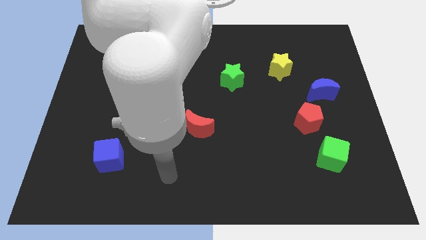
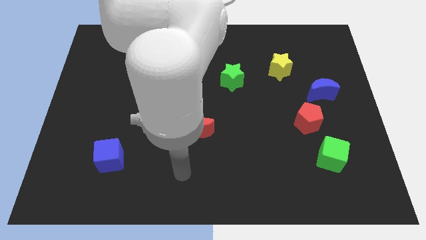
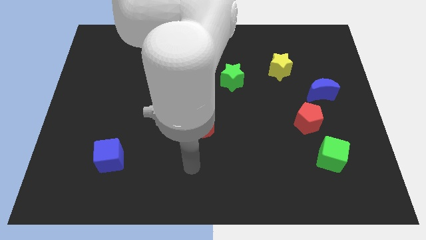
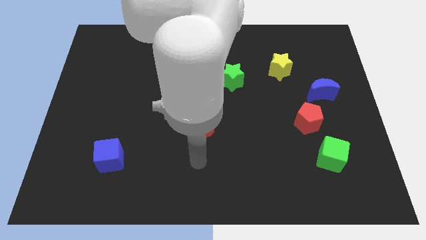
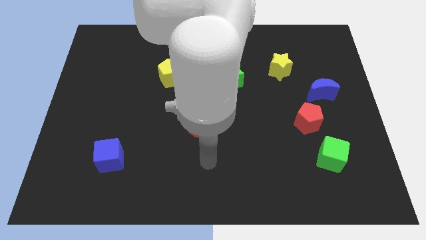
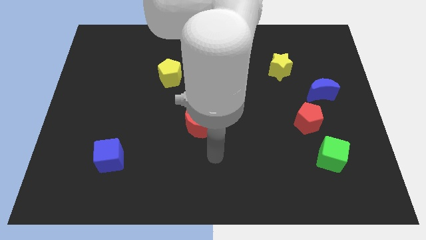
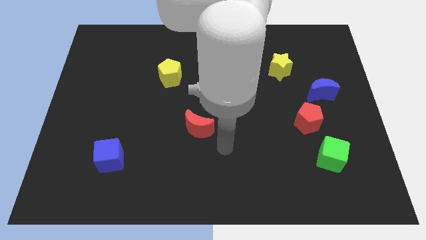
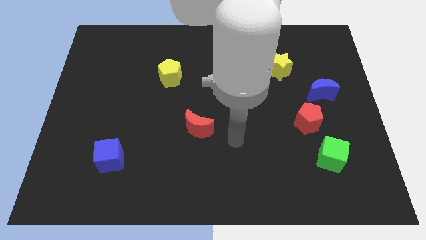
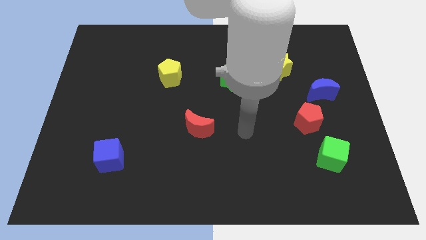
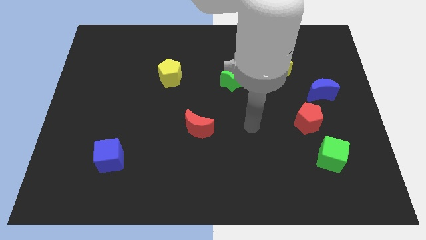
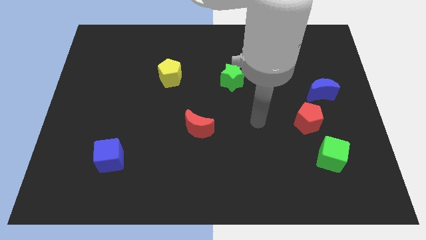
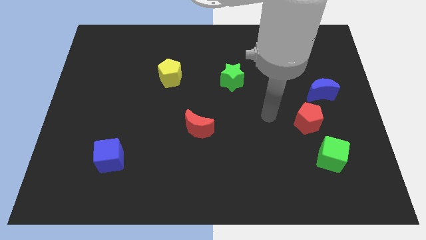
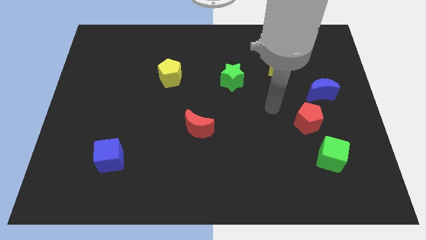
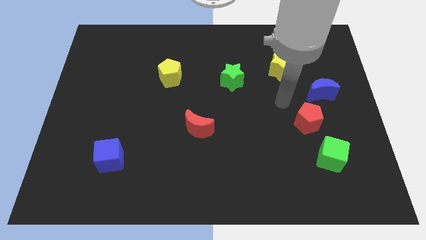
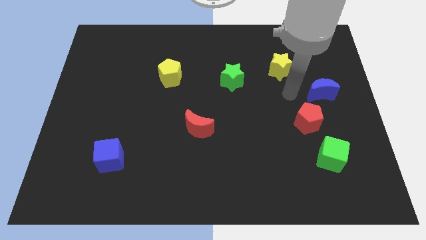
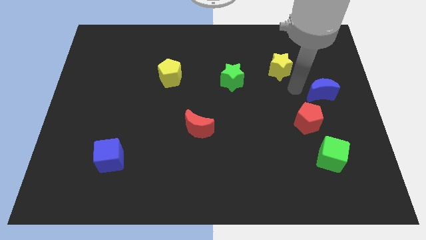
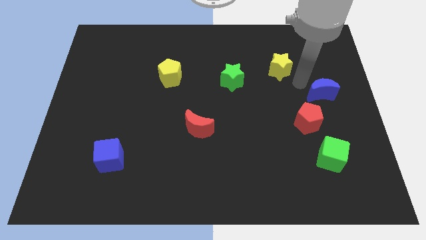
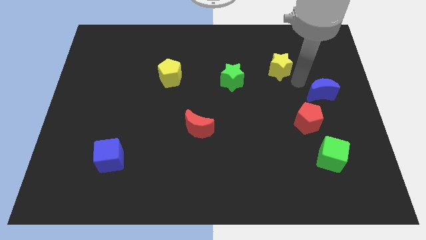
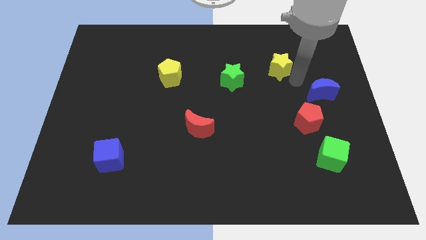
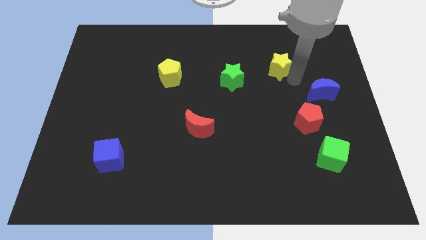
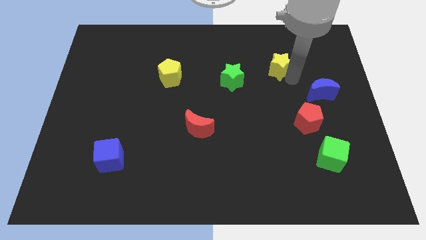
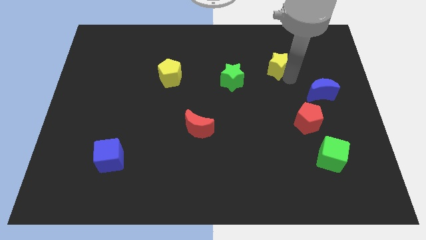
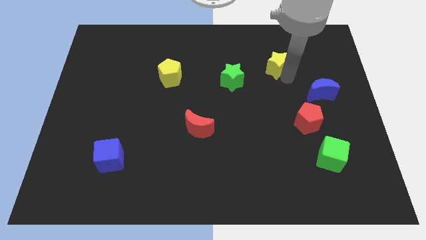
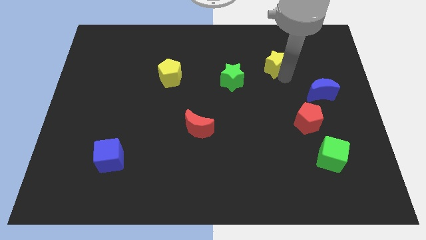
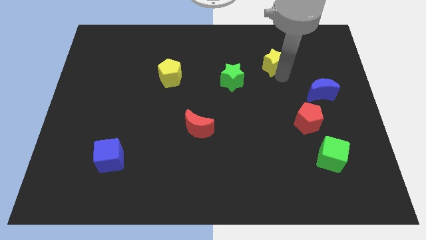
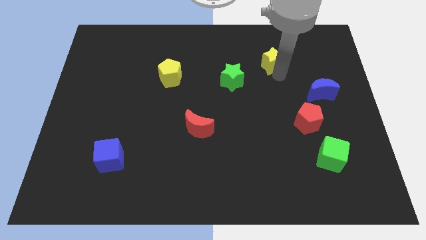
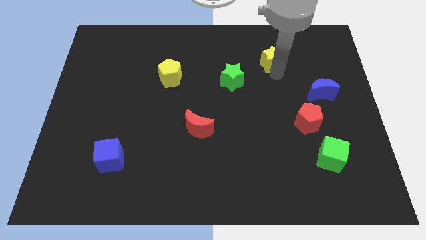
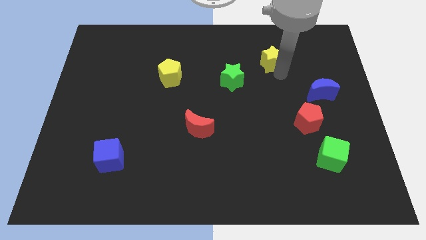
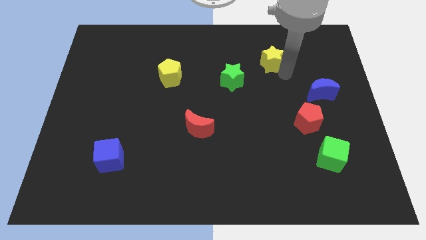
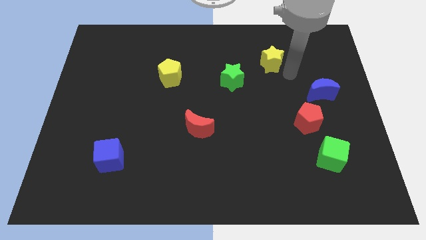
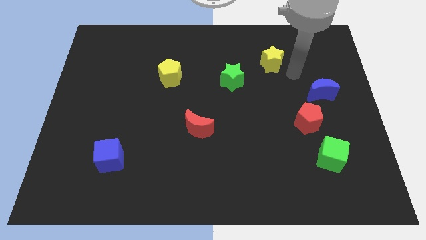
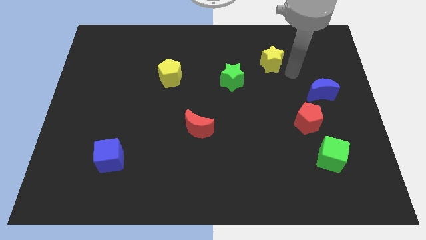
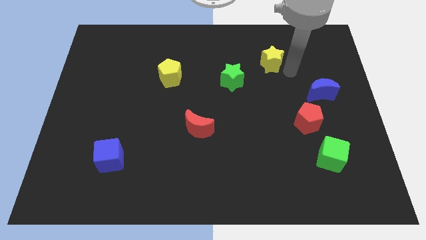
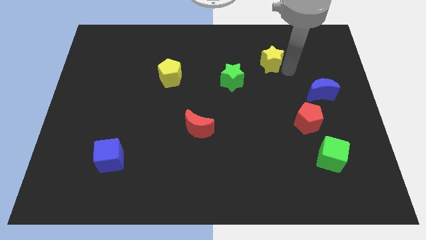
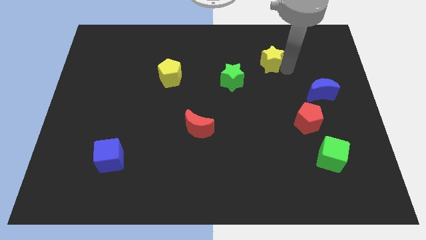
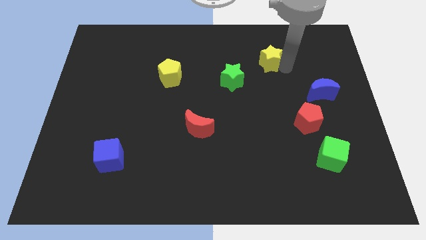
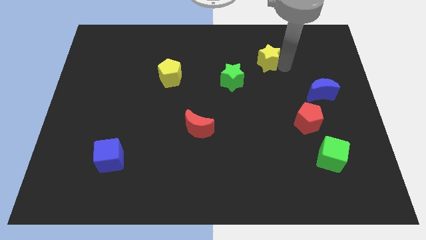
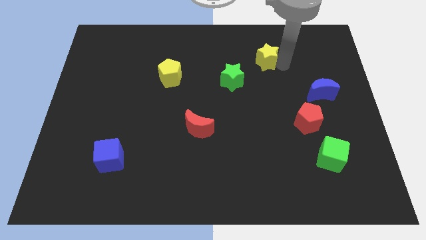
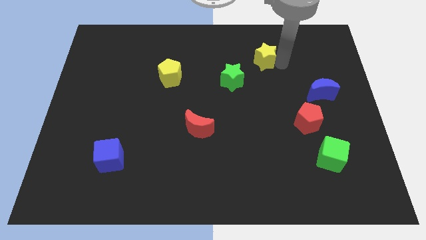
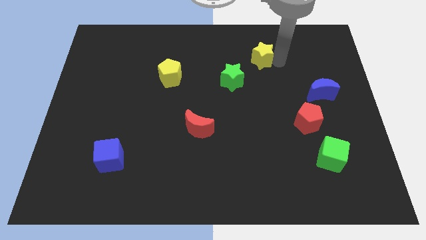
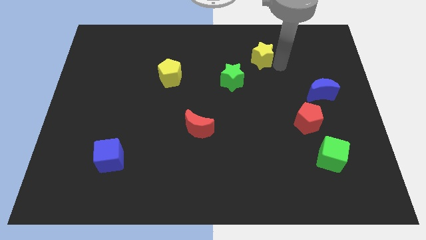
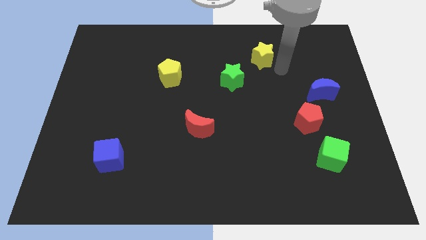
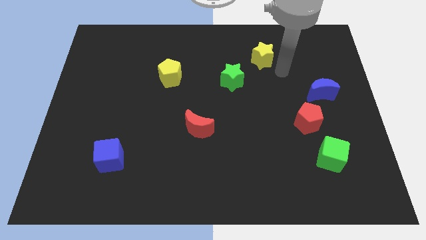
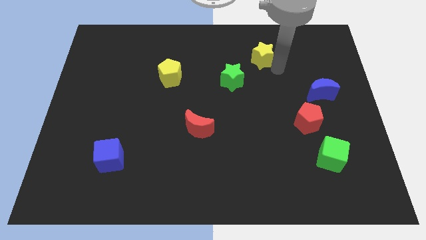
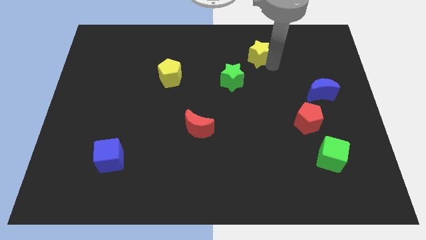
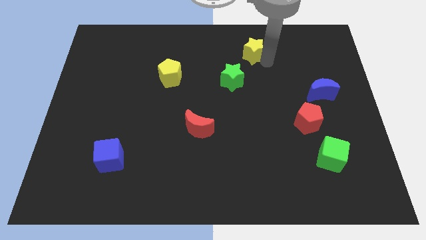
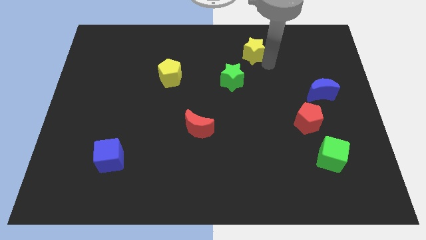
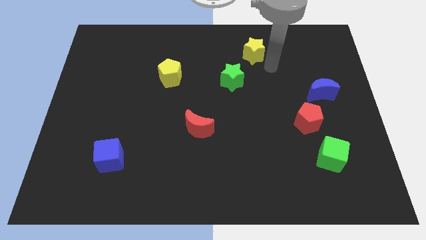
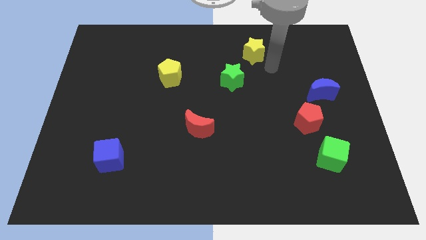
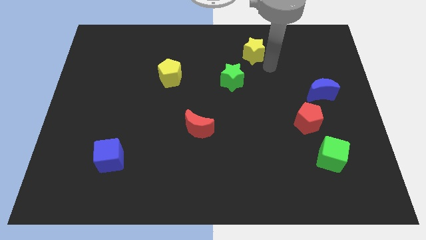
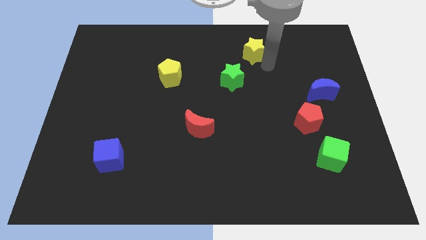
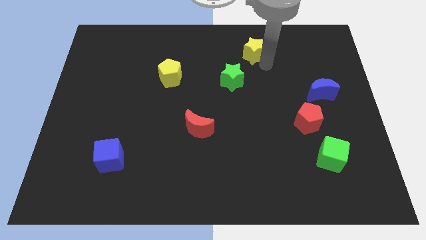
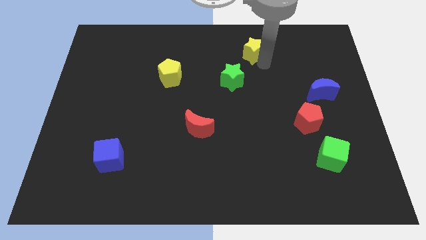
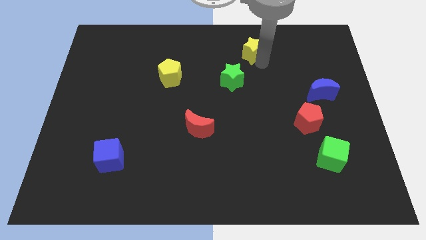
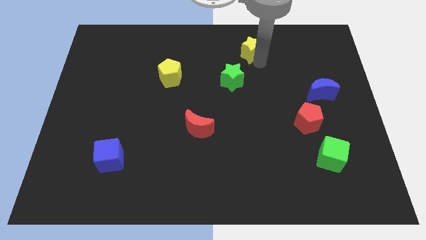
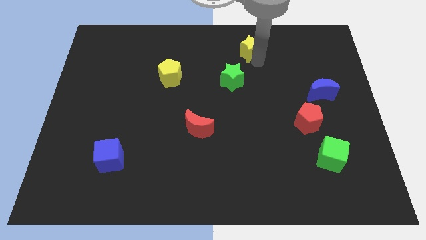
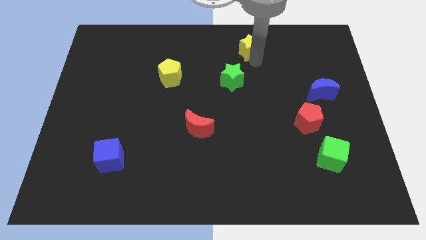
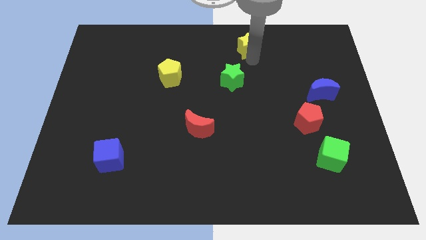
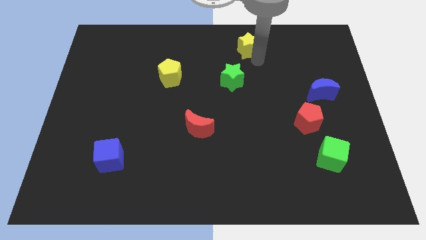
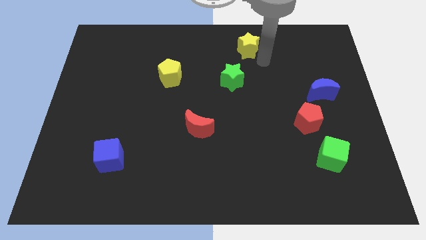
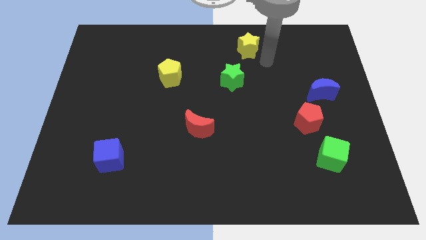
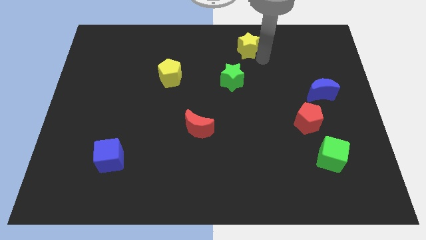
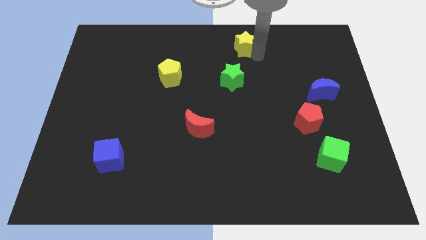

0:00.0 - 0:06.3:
move the yellow star to the towards your base
